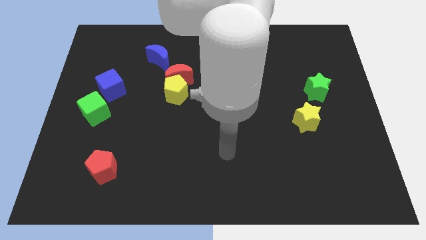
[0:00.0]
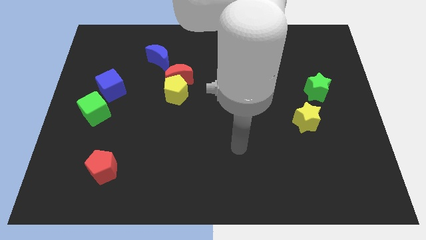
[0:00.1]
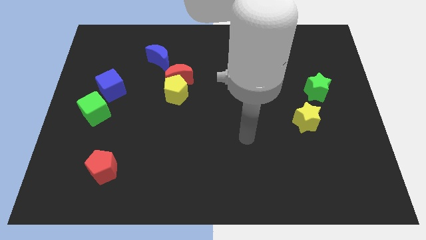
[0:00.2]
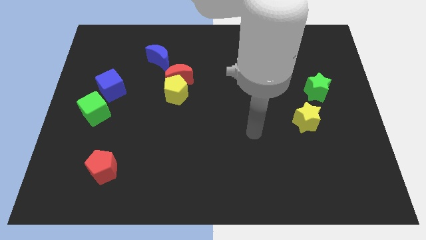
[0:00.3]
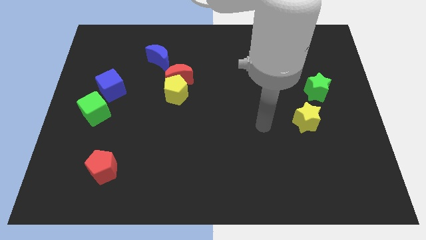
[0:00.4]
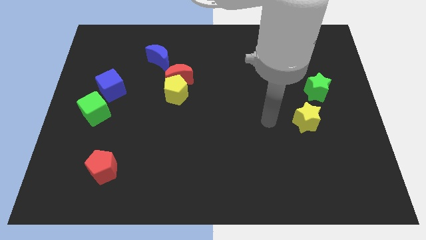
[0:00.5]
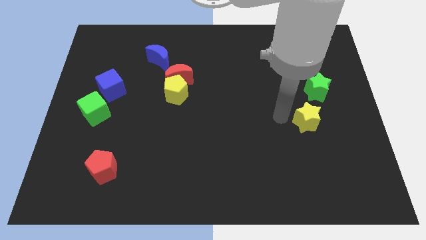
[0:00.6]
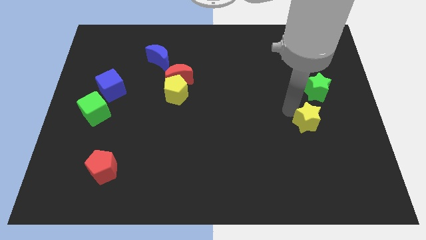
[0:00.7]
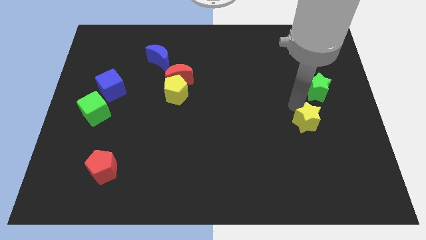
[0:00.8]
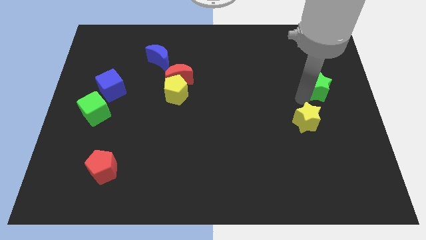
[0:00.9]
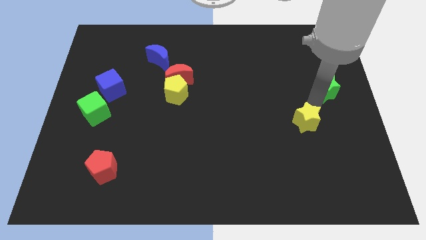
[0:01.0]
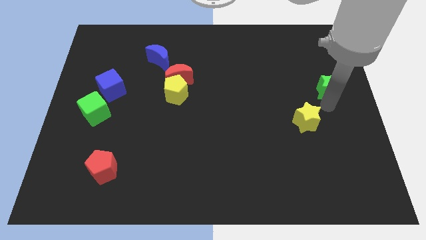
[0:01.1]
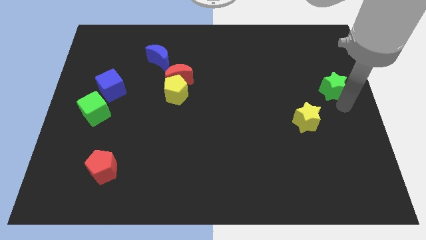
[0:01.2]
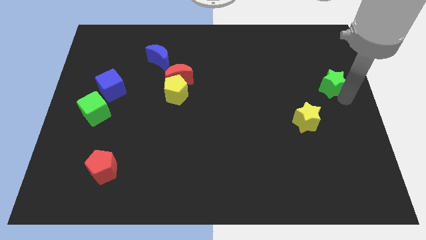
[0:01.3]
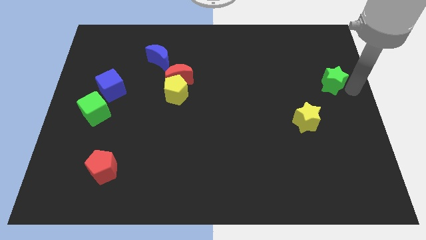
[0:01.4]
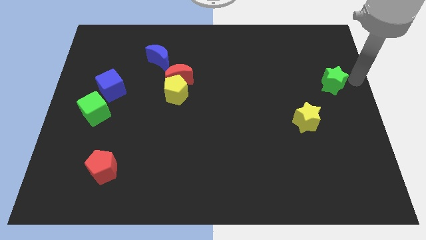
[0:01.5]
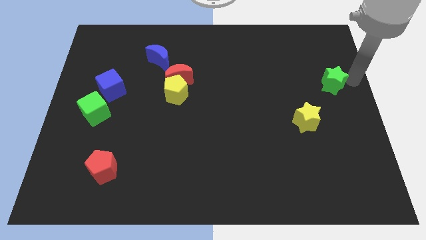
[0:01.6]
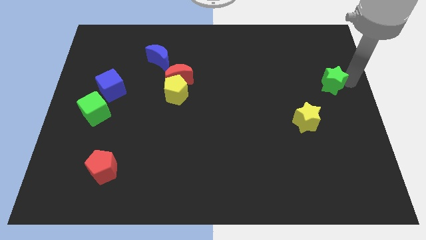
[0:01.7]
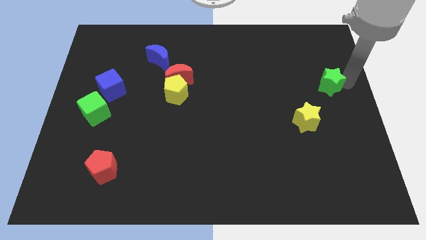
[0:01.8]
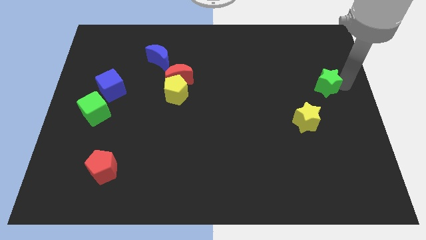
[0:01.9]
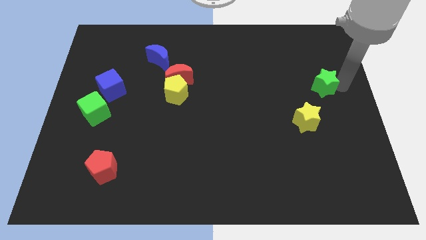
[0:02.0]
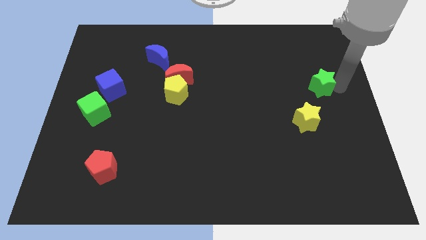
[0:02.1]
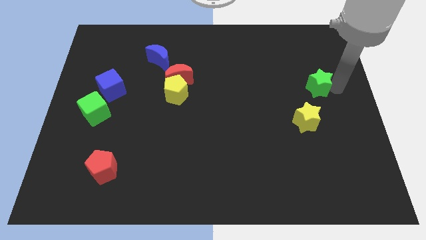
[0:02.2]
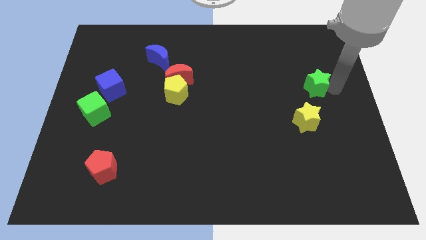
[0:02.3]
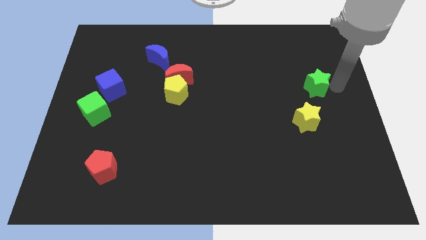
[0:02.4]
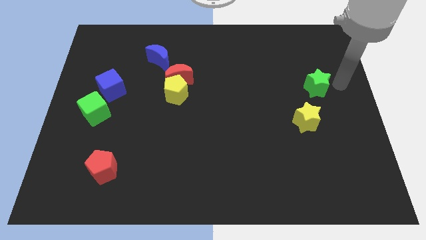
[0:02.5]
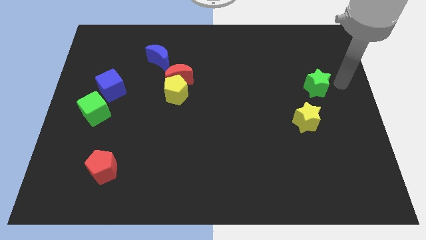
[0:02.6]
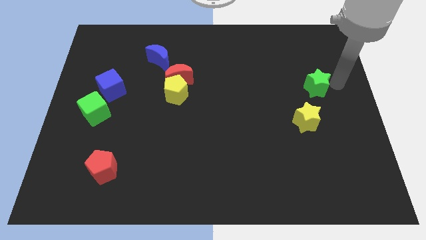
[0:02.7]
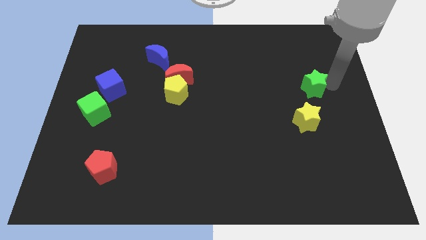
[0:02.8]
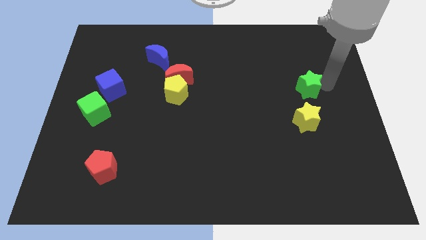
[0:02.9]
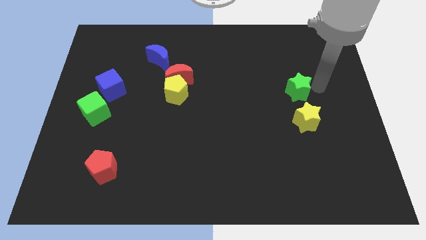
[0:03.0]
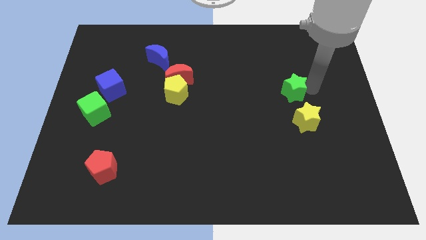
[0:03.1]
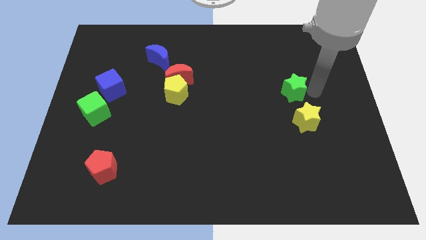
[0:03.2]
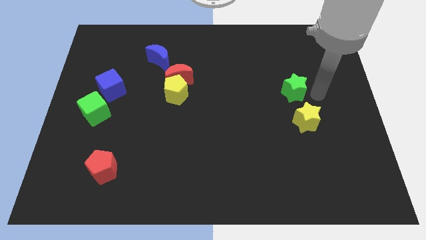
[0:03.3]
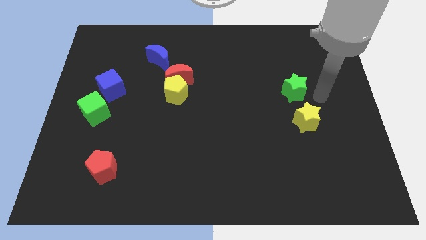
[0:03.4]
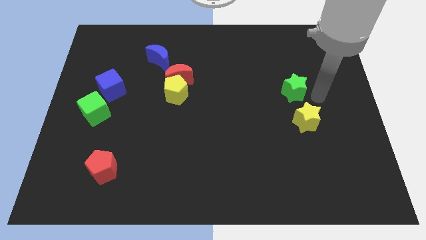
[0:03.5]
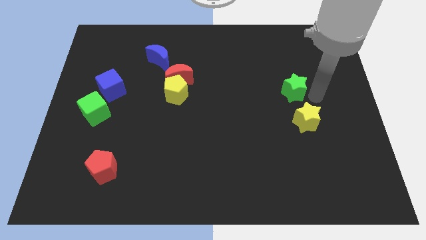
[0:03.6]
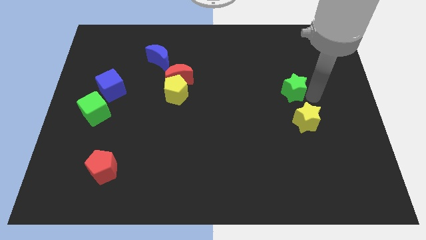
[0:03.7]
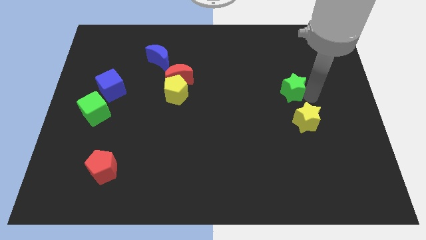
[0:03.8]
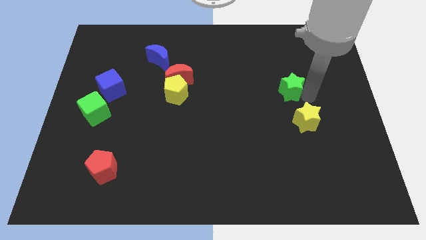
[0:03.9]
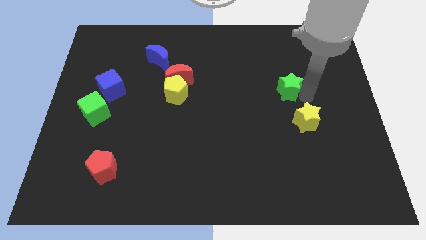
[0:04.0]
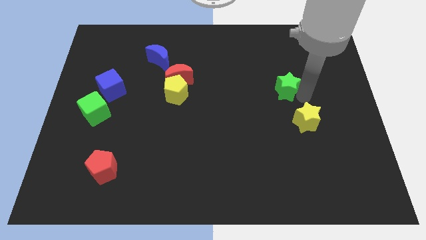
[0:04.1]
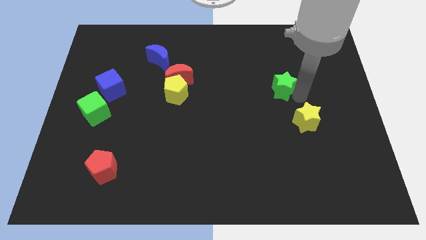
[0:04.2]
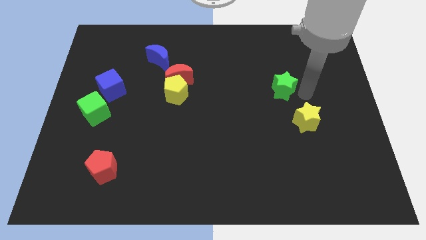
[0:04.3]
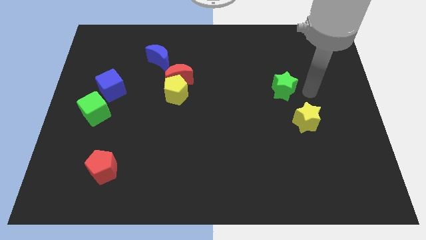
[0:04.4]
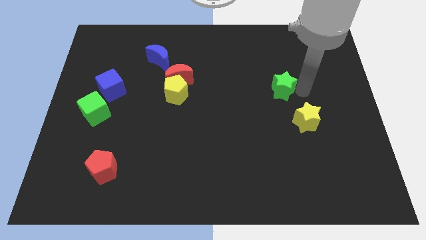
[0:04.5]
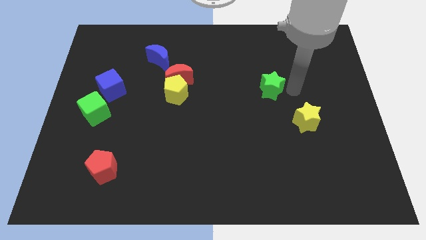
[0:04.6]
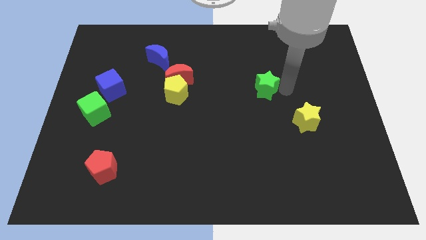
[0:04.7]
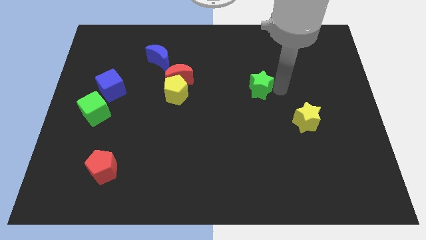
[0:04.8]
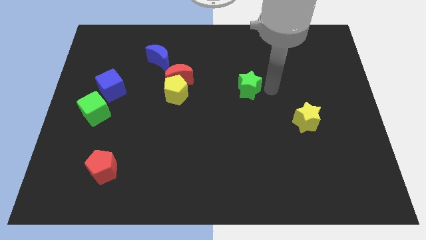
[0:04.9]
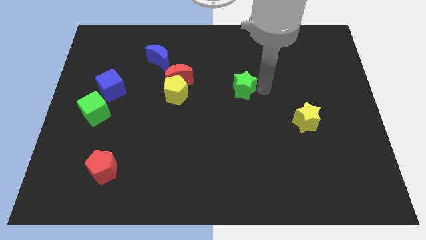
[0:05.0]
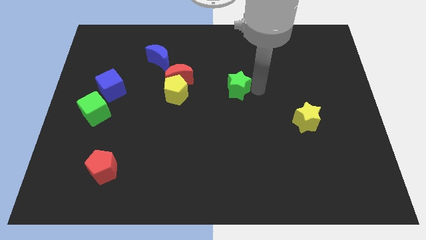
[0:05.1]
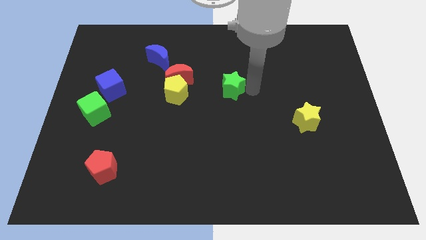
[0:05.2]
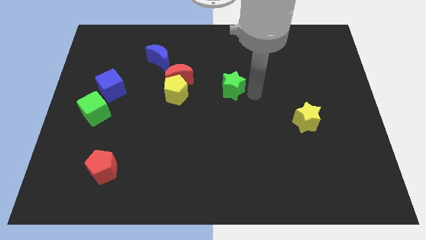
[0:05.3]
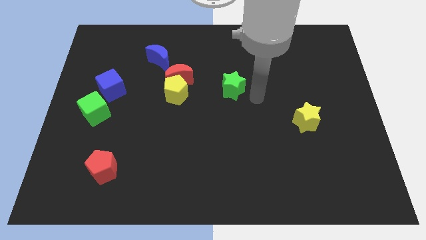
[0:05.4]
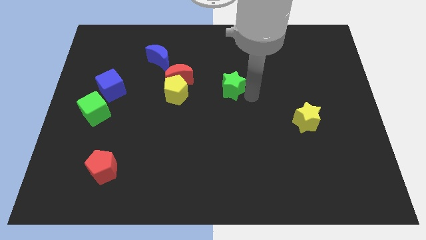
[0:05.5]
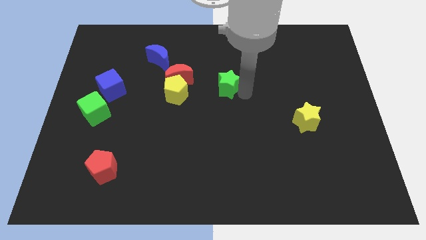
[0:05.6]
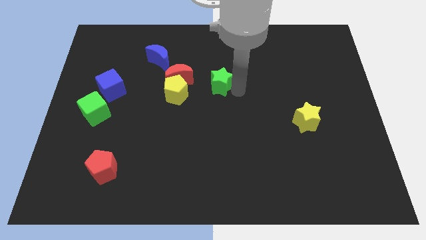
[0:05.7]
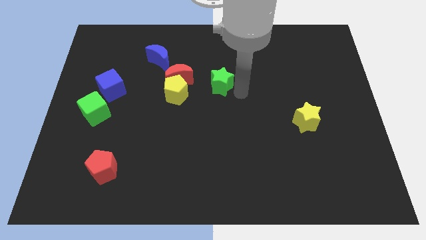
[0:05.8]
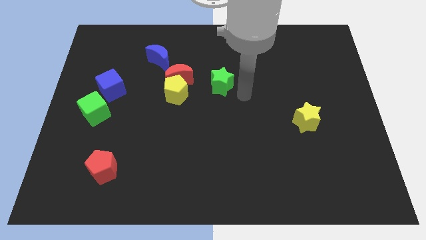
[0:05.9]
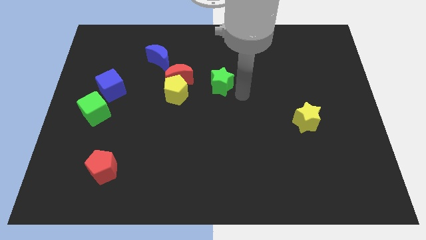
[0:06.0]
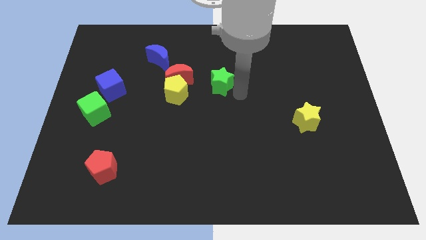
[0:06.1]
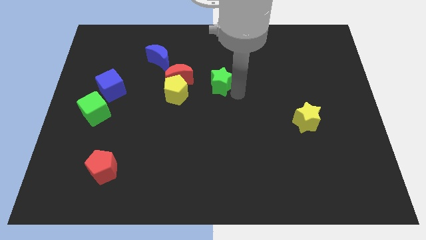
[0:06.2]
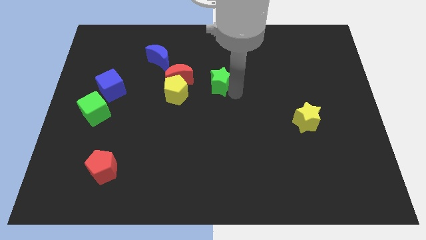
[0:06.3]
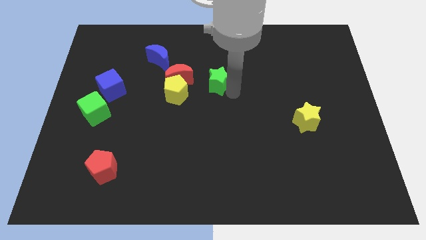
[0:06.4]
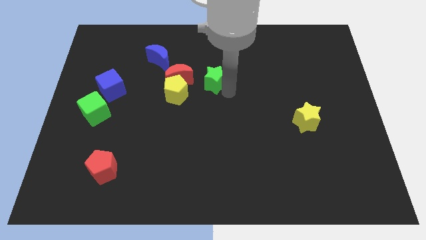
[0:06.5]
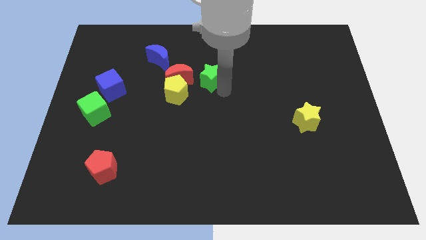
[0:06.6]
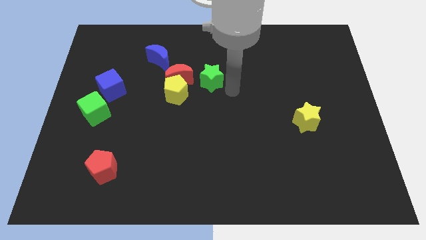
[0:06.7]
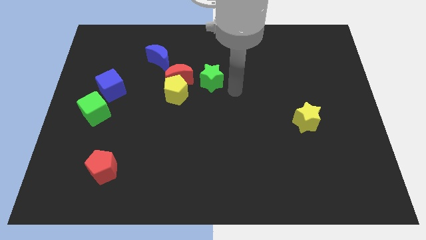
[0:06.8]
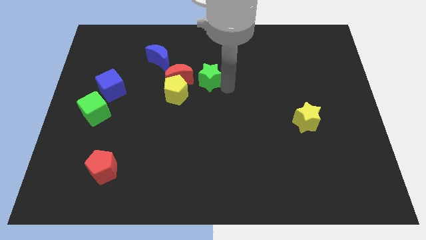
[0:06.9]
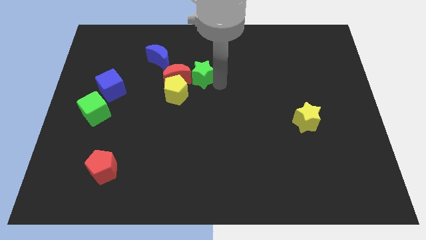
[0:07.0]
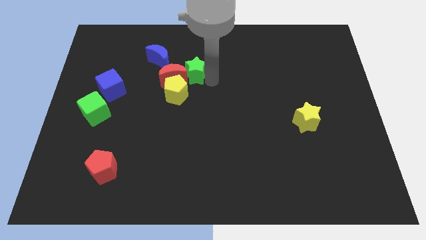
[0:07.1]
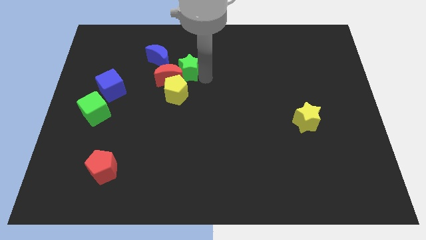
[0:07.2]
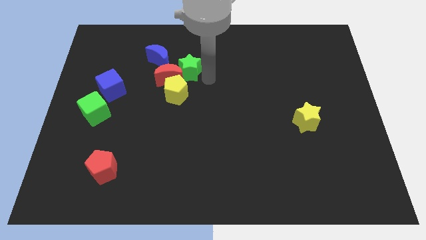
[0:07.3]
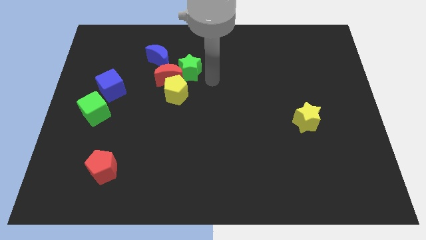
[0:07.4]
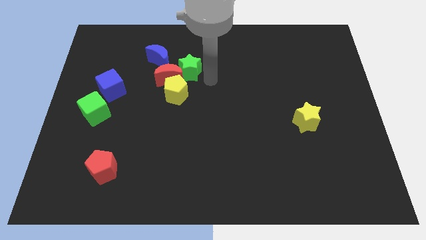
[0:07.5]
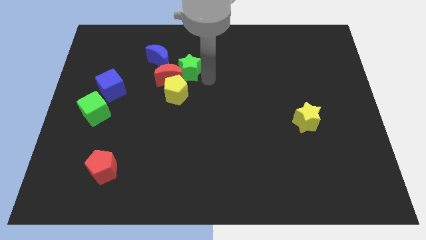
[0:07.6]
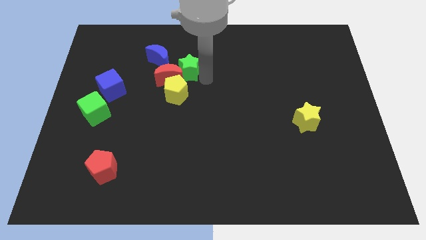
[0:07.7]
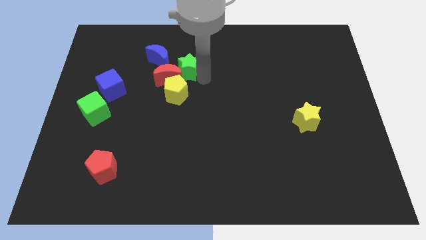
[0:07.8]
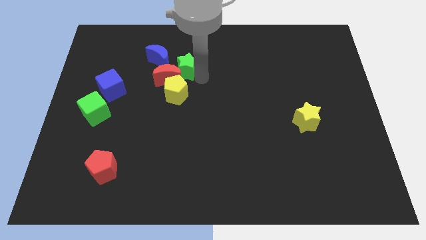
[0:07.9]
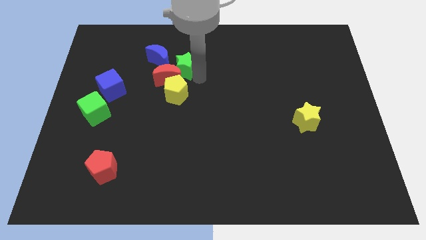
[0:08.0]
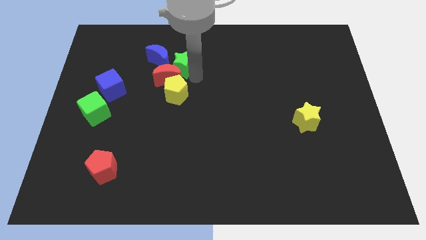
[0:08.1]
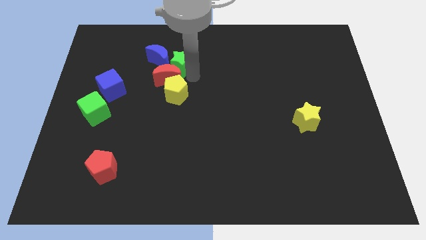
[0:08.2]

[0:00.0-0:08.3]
put the green star close to the blue moon
